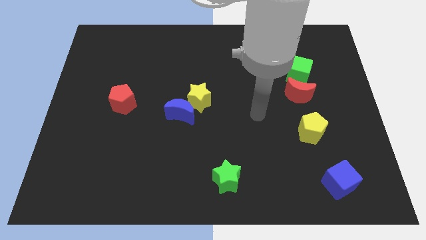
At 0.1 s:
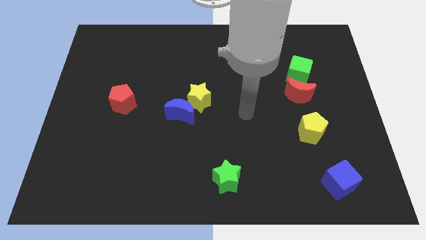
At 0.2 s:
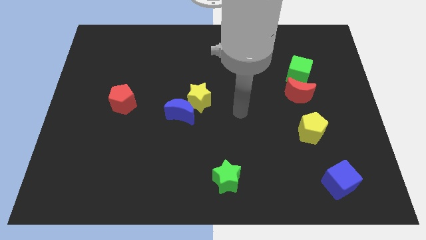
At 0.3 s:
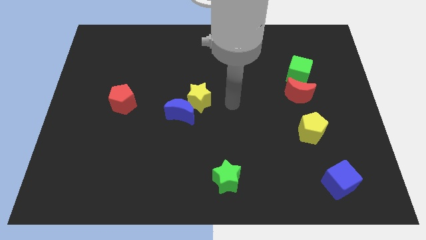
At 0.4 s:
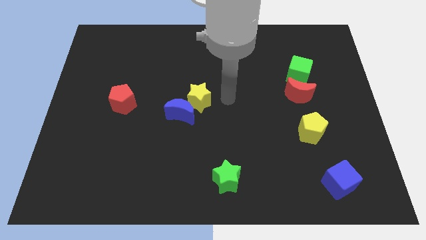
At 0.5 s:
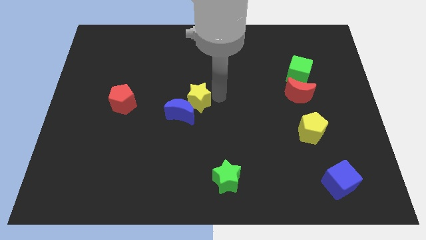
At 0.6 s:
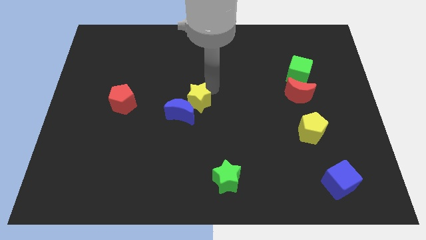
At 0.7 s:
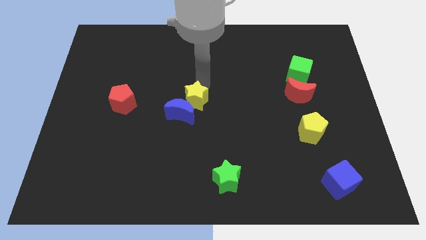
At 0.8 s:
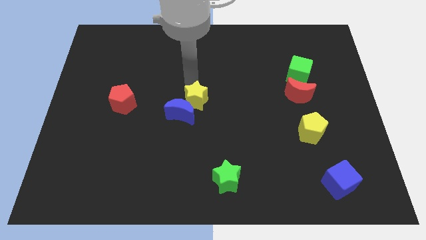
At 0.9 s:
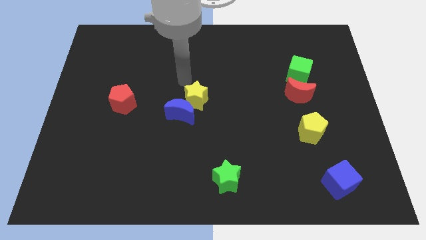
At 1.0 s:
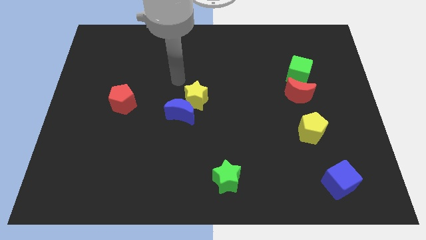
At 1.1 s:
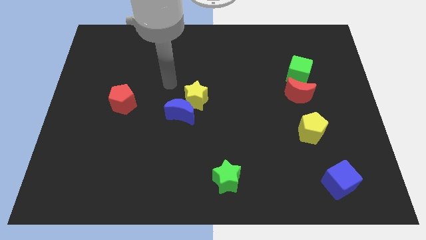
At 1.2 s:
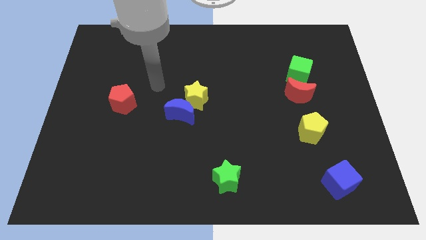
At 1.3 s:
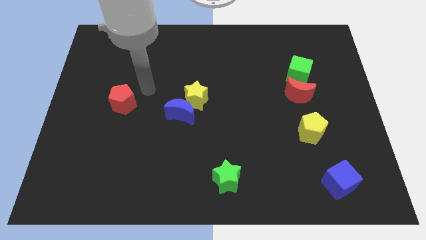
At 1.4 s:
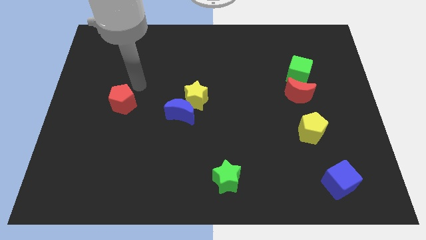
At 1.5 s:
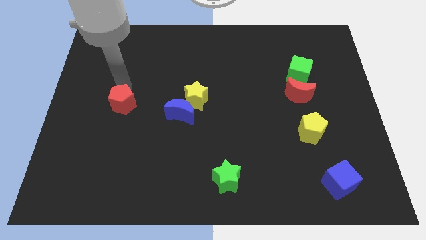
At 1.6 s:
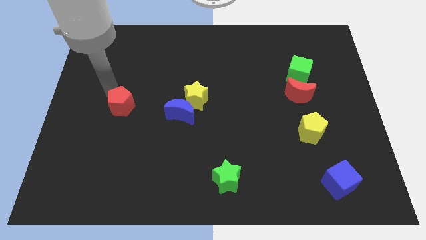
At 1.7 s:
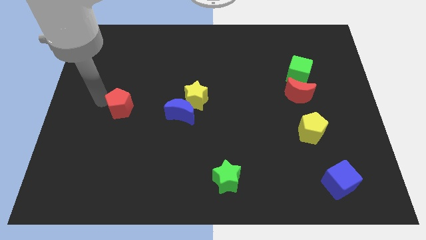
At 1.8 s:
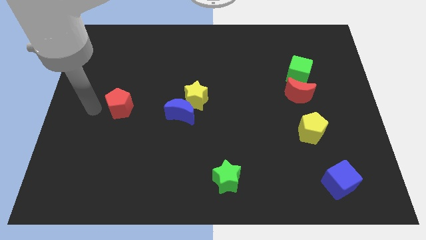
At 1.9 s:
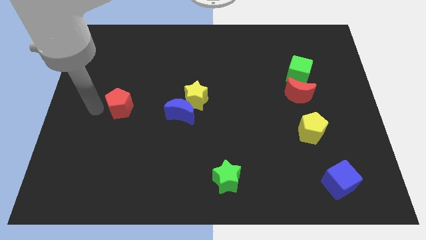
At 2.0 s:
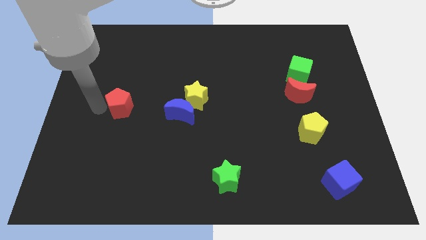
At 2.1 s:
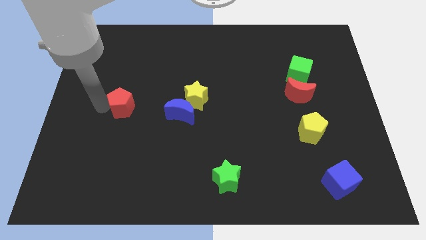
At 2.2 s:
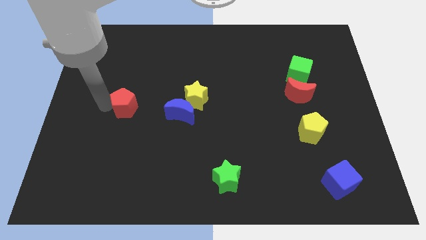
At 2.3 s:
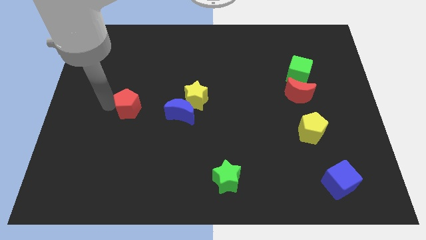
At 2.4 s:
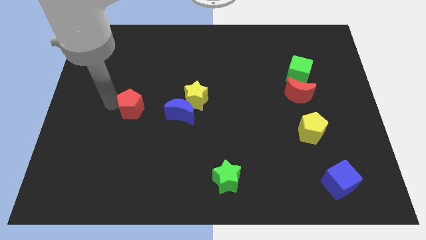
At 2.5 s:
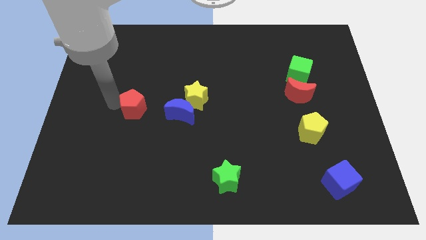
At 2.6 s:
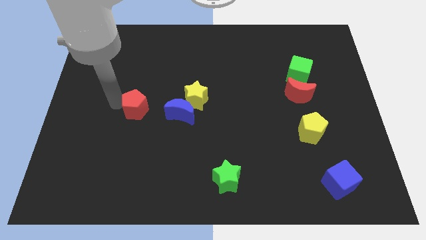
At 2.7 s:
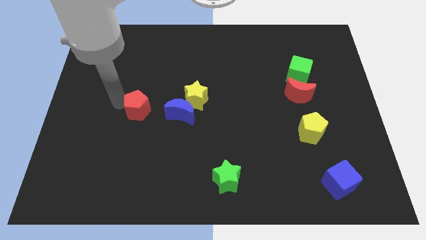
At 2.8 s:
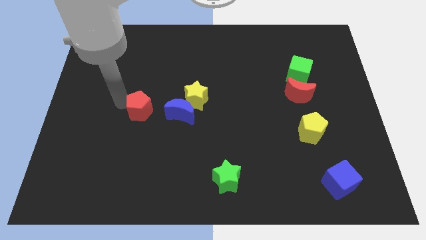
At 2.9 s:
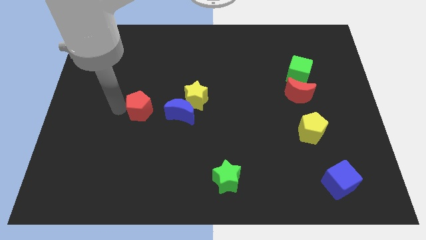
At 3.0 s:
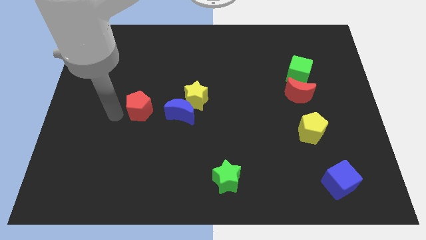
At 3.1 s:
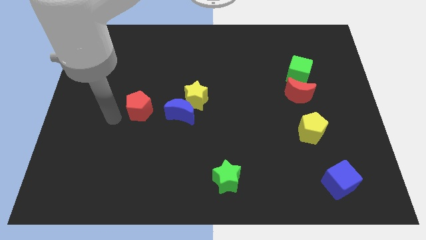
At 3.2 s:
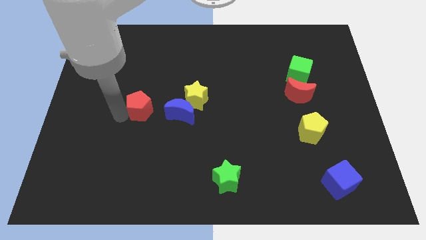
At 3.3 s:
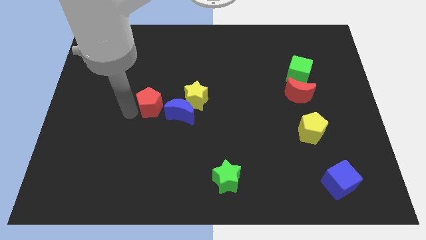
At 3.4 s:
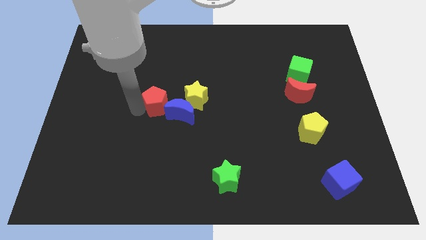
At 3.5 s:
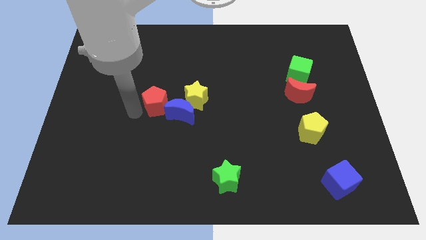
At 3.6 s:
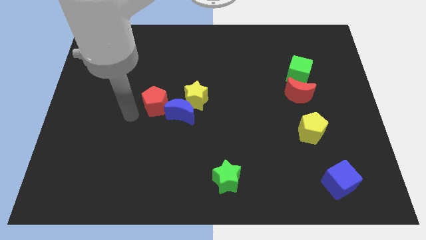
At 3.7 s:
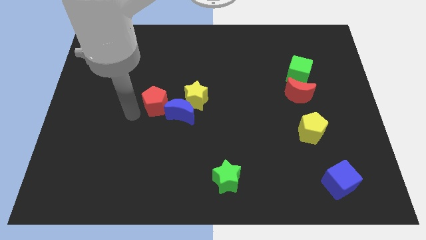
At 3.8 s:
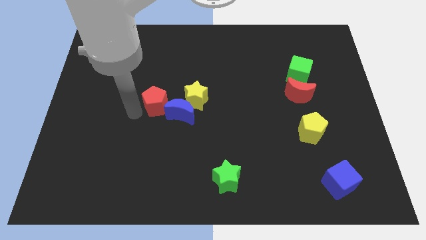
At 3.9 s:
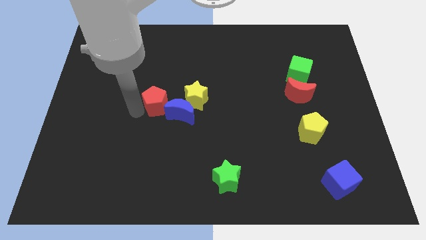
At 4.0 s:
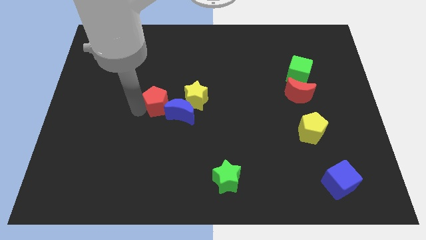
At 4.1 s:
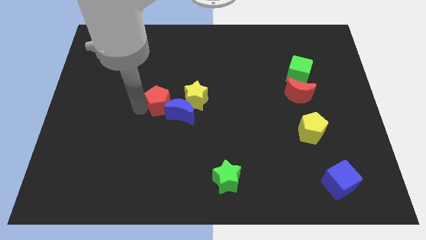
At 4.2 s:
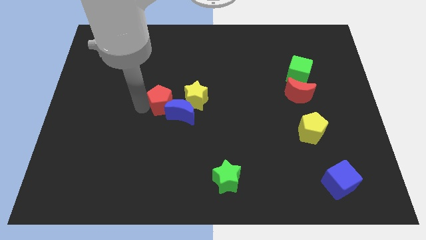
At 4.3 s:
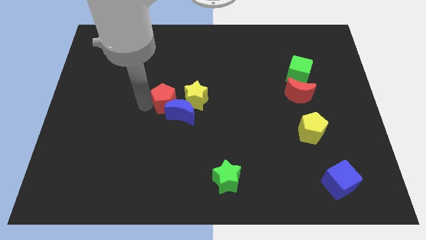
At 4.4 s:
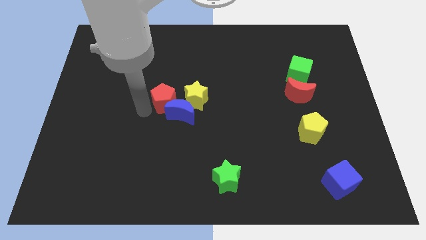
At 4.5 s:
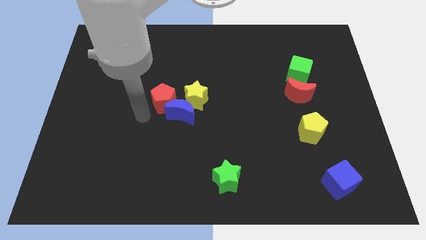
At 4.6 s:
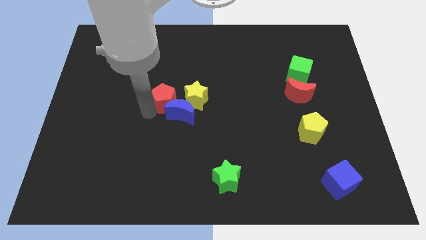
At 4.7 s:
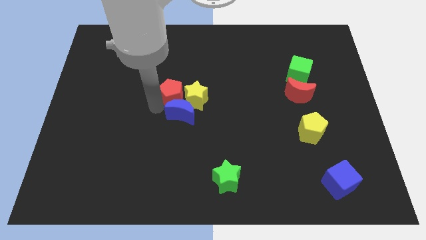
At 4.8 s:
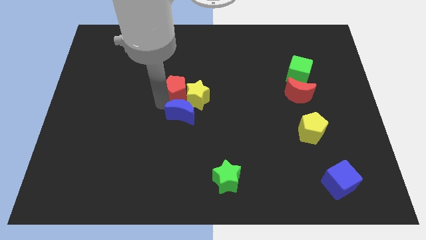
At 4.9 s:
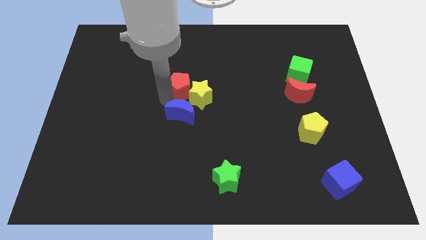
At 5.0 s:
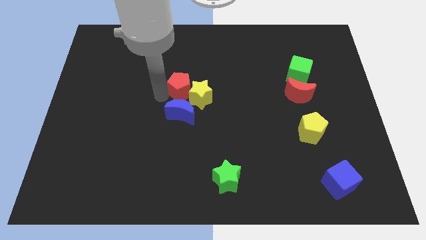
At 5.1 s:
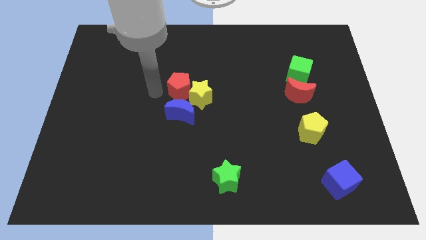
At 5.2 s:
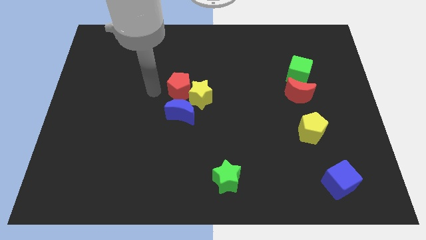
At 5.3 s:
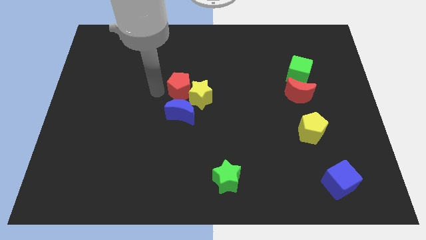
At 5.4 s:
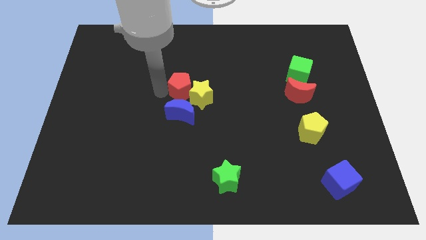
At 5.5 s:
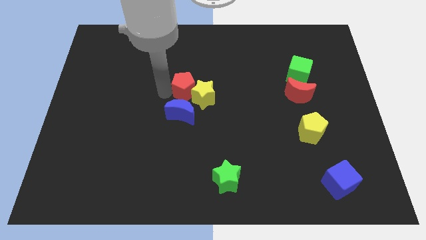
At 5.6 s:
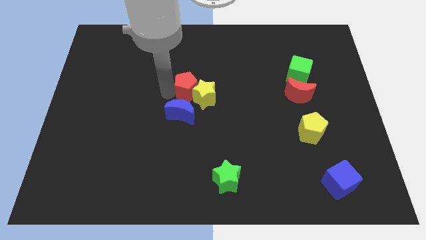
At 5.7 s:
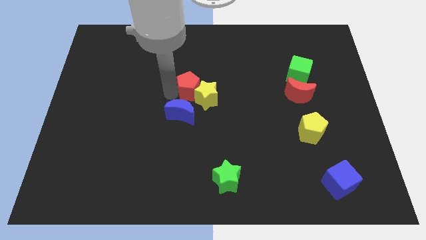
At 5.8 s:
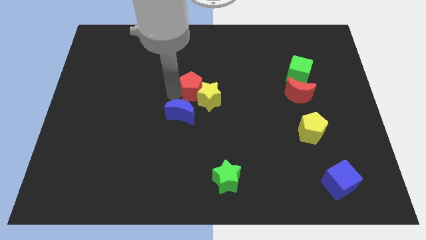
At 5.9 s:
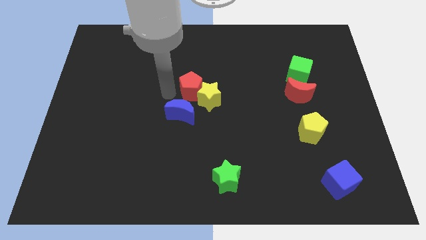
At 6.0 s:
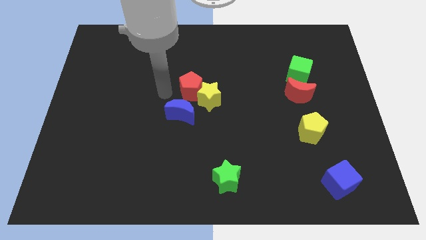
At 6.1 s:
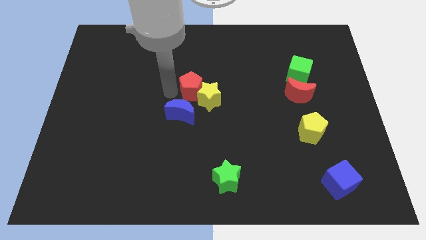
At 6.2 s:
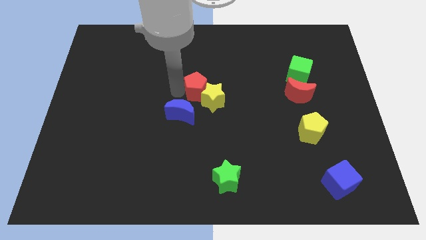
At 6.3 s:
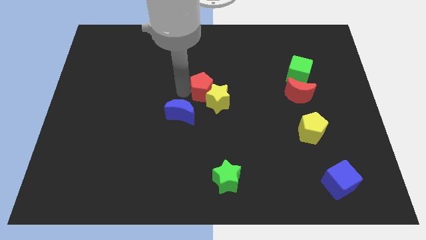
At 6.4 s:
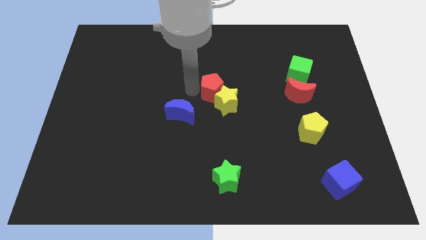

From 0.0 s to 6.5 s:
move the red pentagon to the right

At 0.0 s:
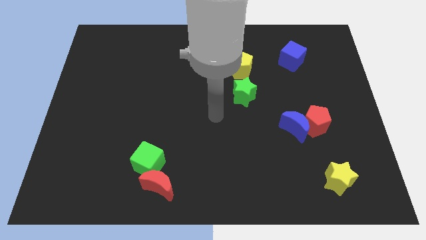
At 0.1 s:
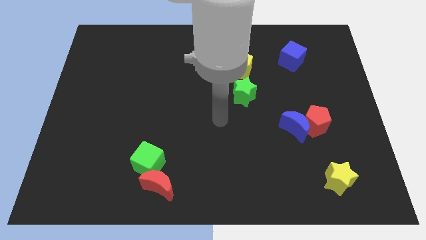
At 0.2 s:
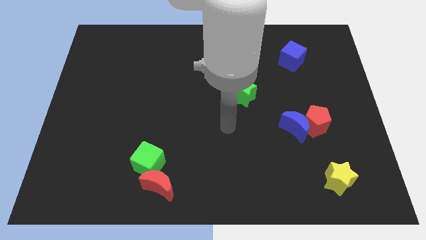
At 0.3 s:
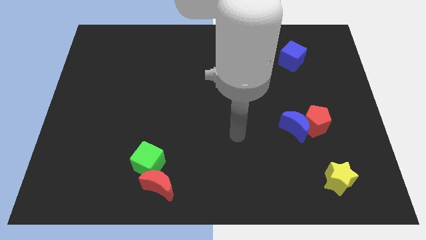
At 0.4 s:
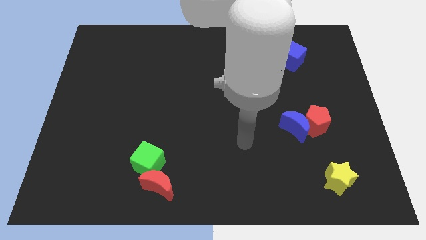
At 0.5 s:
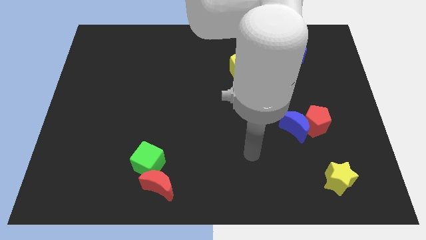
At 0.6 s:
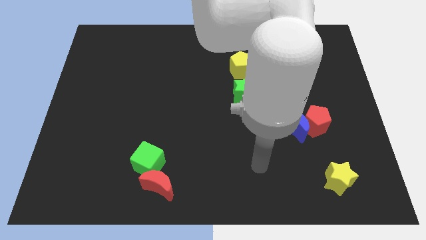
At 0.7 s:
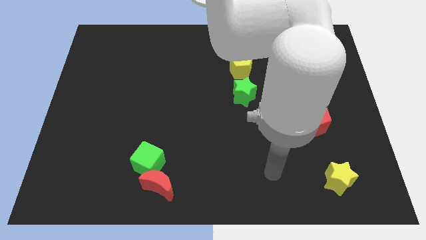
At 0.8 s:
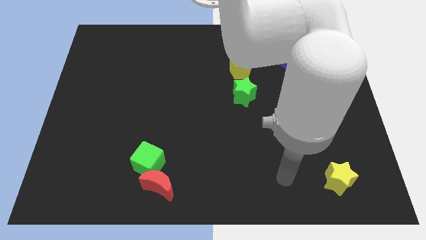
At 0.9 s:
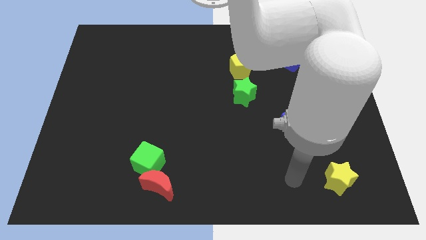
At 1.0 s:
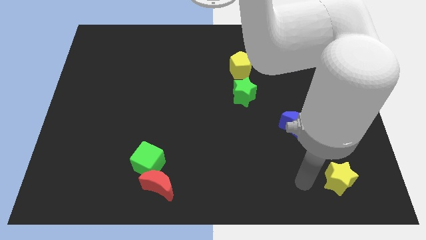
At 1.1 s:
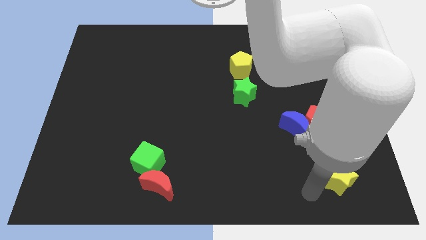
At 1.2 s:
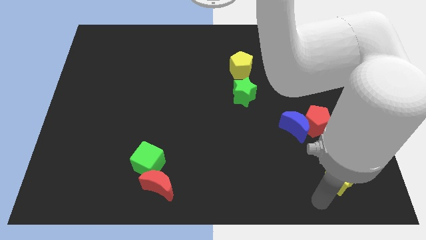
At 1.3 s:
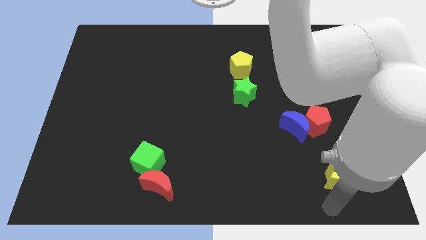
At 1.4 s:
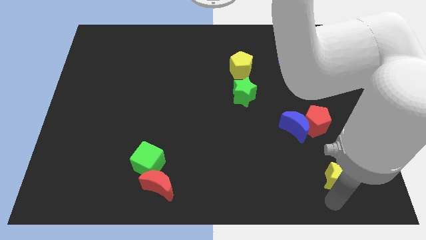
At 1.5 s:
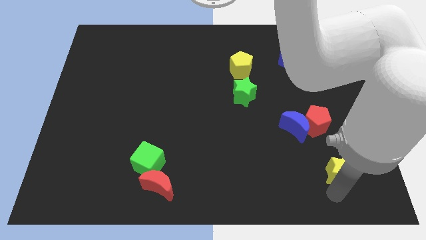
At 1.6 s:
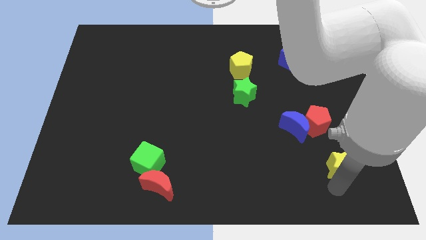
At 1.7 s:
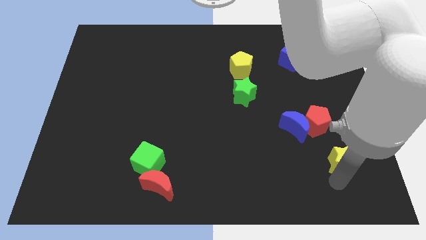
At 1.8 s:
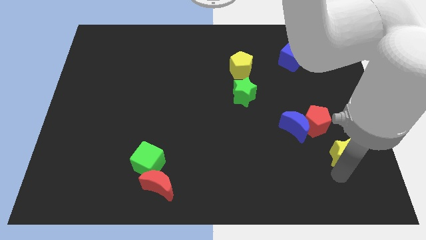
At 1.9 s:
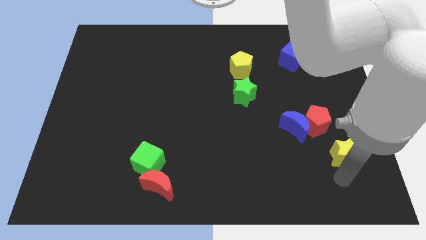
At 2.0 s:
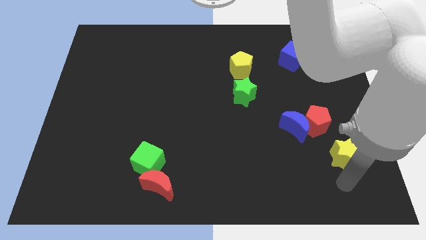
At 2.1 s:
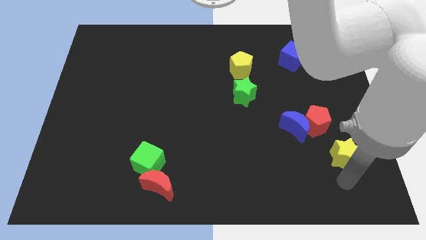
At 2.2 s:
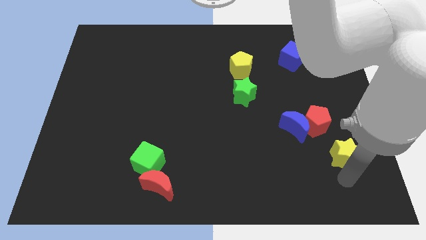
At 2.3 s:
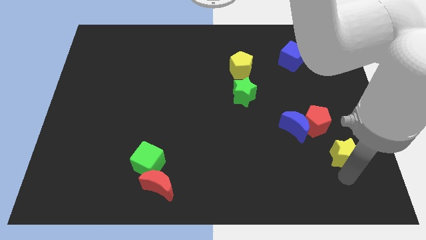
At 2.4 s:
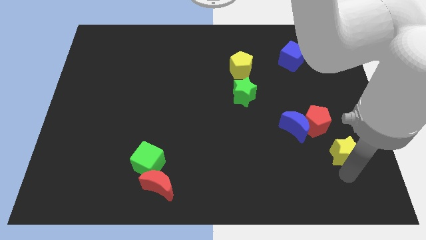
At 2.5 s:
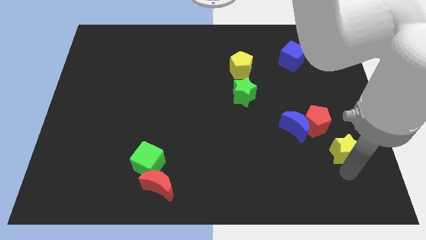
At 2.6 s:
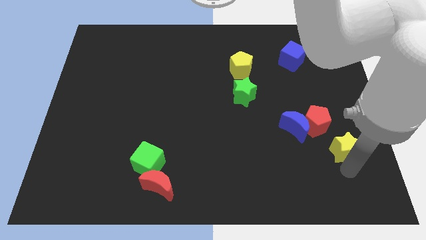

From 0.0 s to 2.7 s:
push the yellow star up a little bit
